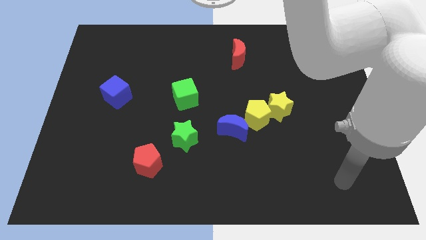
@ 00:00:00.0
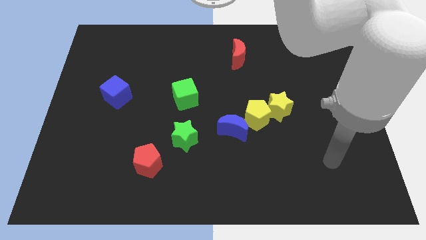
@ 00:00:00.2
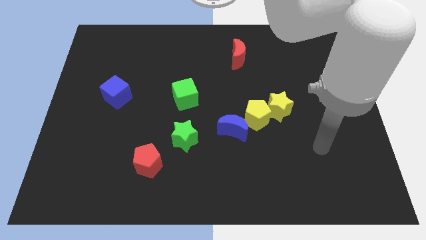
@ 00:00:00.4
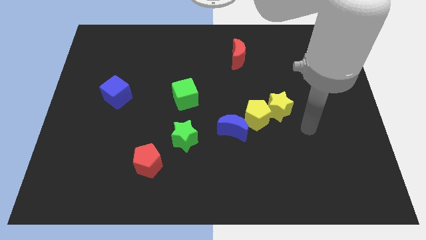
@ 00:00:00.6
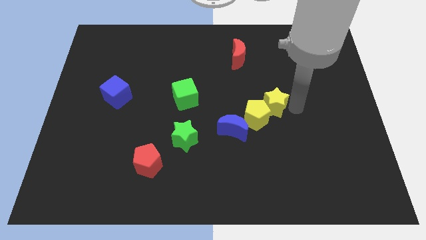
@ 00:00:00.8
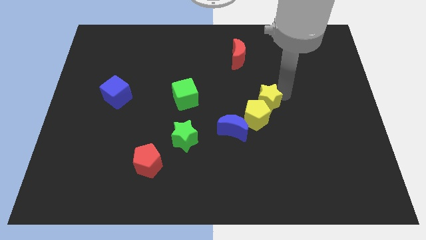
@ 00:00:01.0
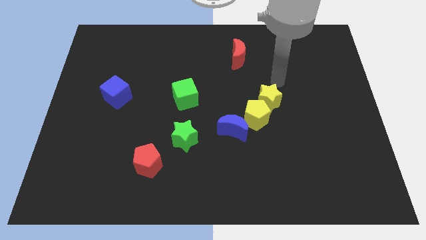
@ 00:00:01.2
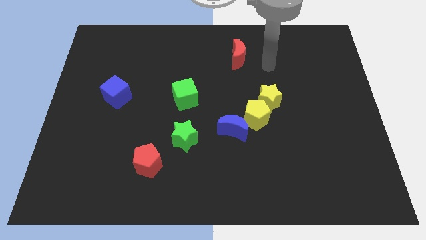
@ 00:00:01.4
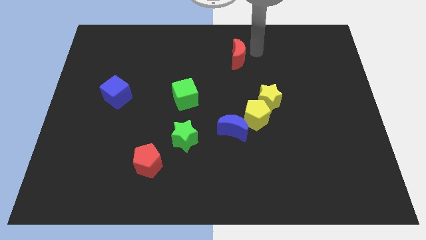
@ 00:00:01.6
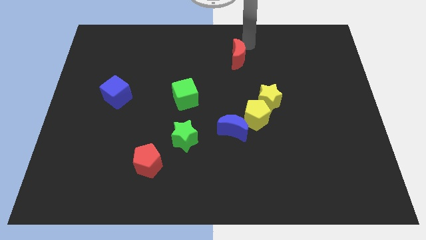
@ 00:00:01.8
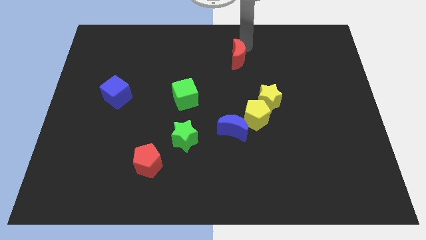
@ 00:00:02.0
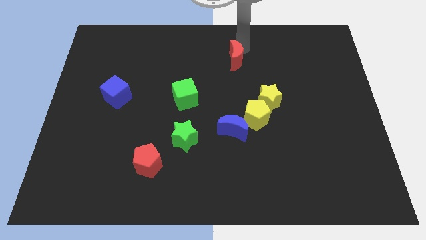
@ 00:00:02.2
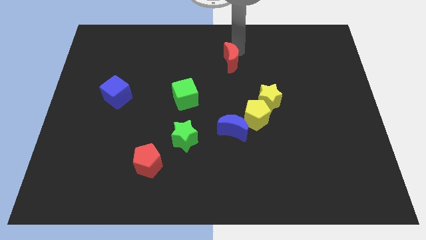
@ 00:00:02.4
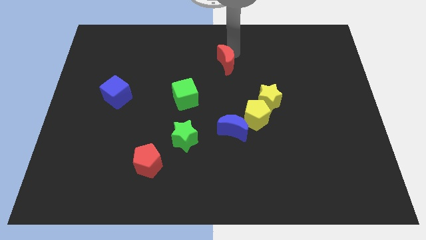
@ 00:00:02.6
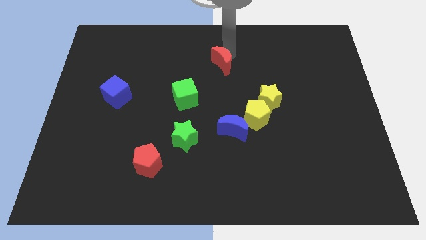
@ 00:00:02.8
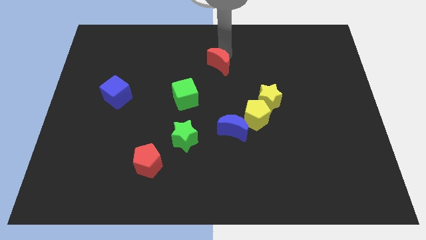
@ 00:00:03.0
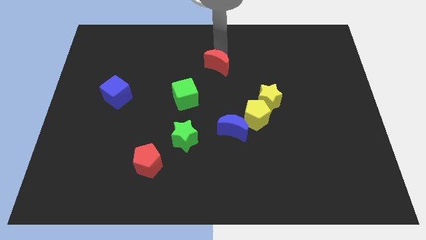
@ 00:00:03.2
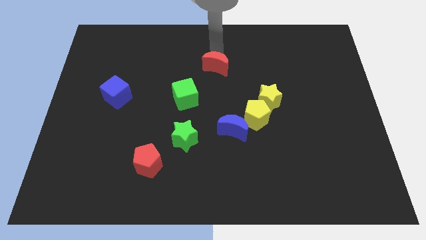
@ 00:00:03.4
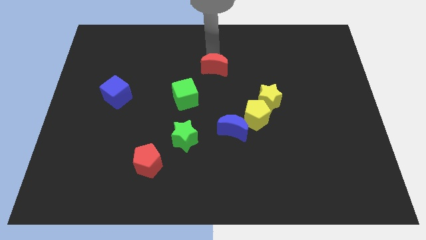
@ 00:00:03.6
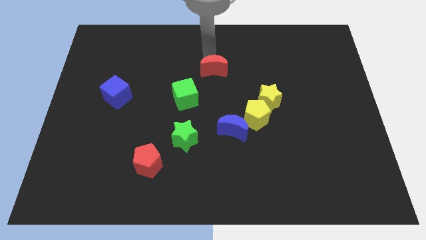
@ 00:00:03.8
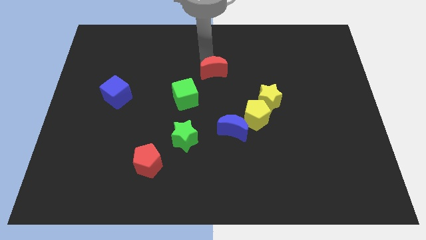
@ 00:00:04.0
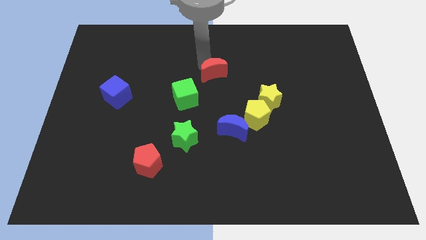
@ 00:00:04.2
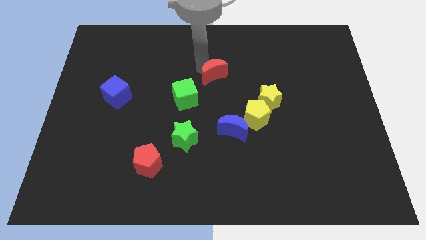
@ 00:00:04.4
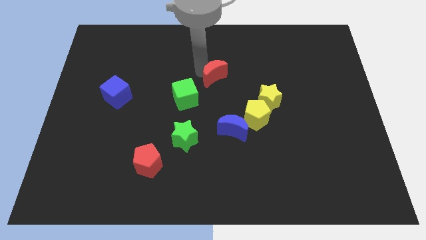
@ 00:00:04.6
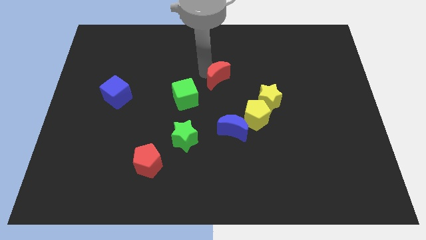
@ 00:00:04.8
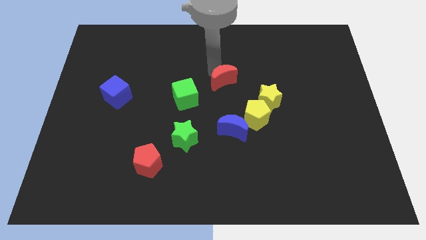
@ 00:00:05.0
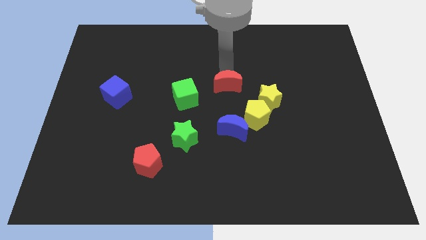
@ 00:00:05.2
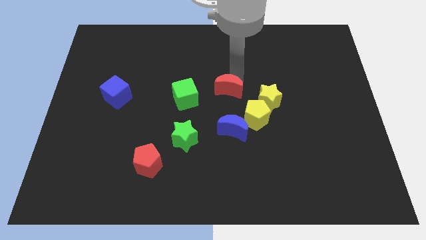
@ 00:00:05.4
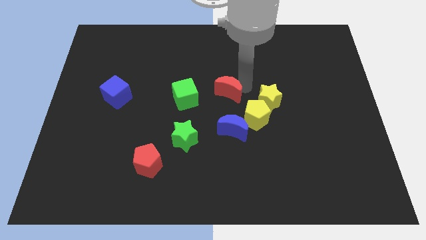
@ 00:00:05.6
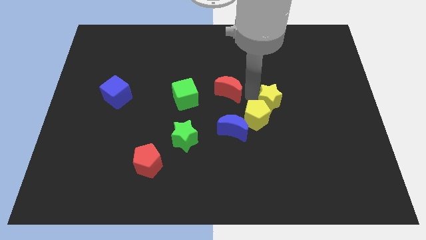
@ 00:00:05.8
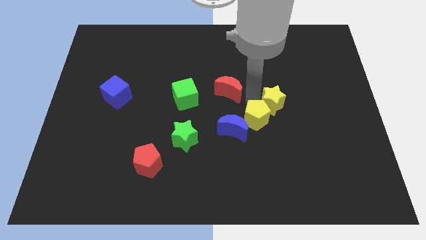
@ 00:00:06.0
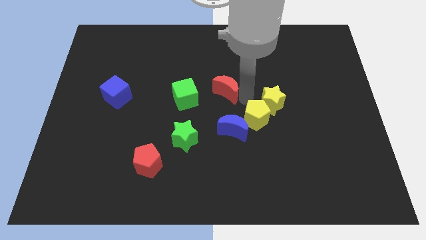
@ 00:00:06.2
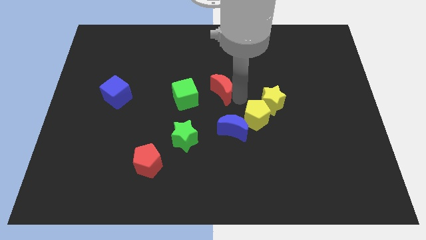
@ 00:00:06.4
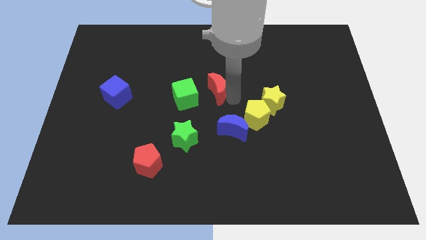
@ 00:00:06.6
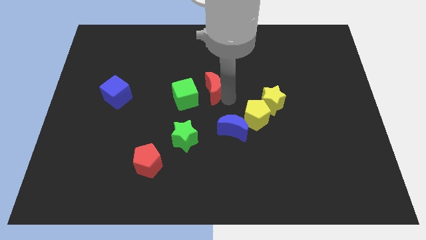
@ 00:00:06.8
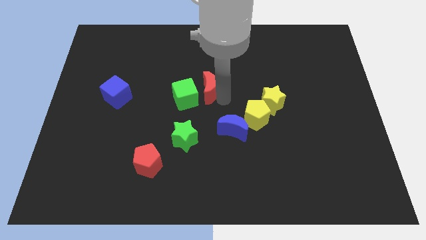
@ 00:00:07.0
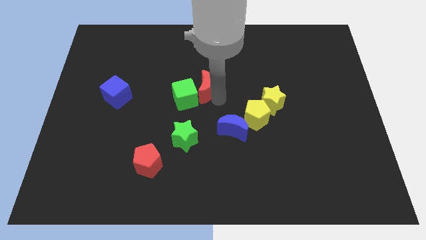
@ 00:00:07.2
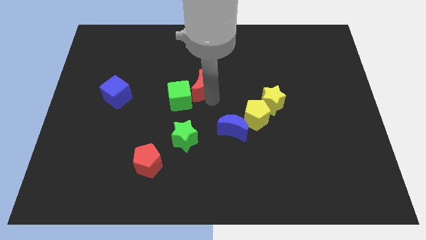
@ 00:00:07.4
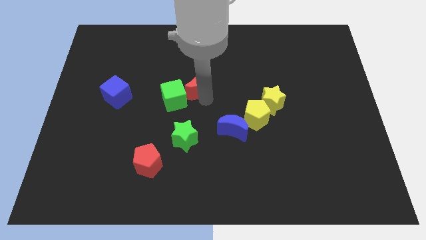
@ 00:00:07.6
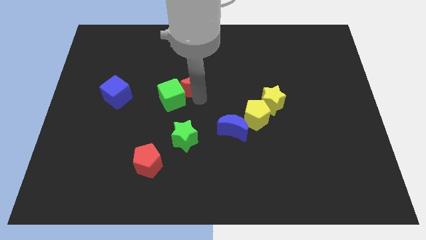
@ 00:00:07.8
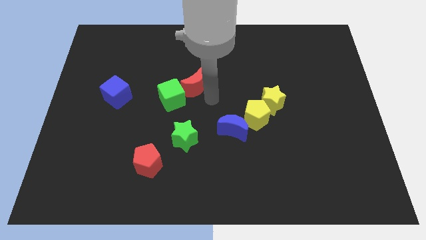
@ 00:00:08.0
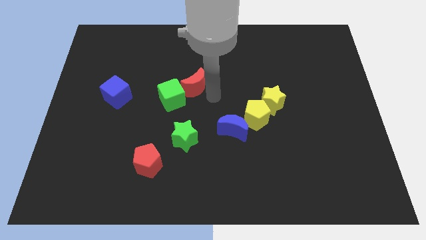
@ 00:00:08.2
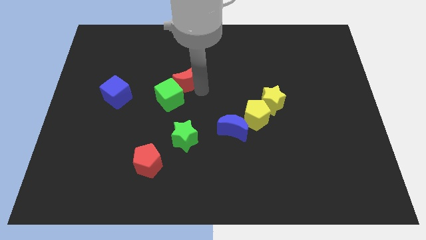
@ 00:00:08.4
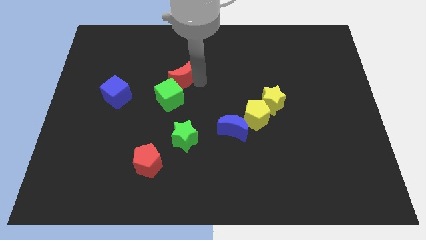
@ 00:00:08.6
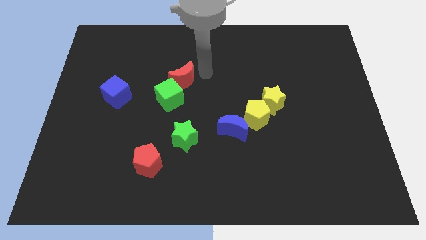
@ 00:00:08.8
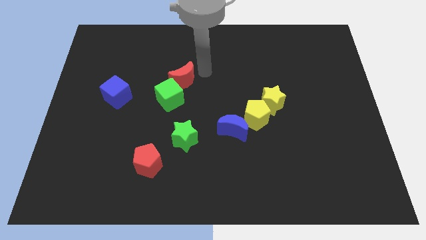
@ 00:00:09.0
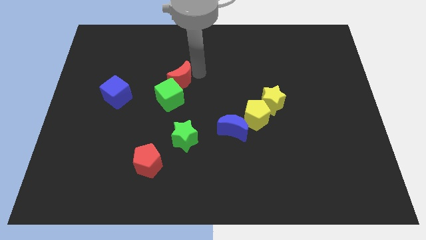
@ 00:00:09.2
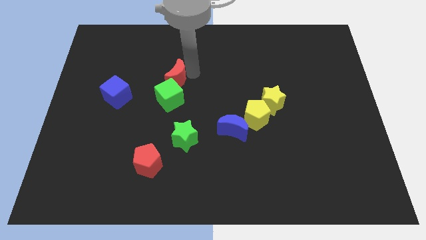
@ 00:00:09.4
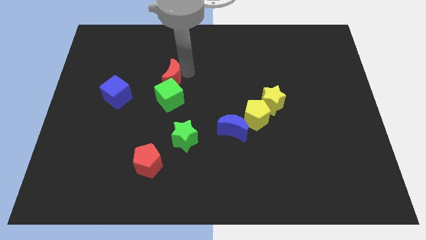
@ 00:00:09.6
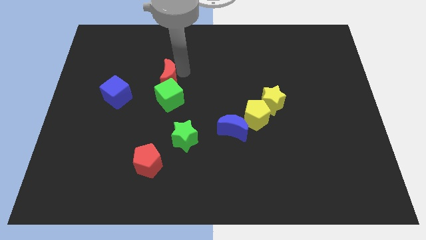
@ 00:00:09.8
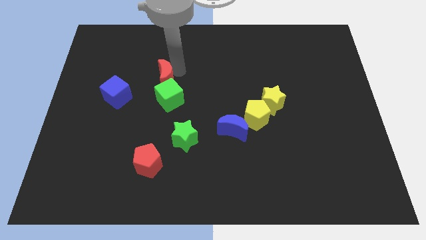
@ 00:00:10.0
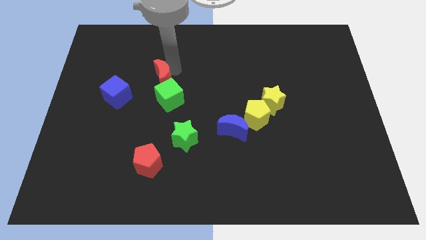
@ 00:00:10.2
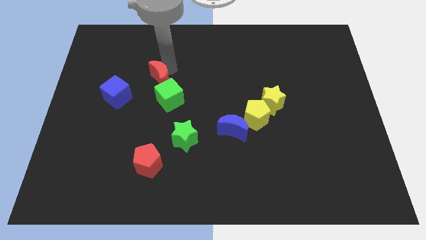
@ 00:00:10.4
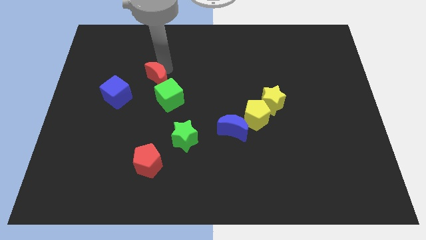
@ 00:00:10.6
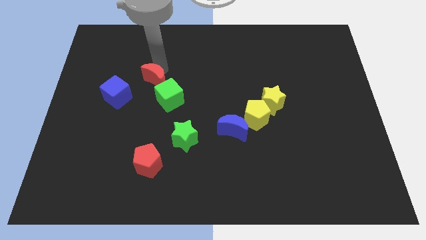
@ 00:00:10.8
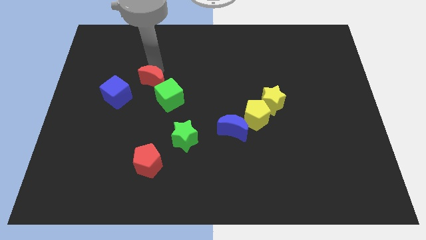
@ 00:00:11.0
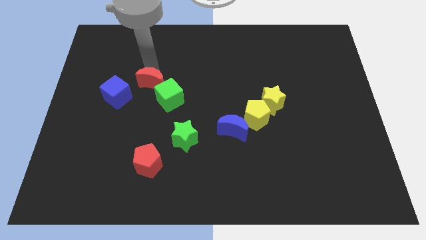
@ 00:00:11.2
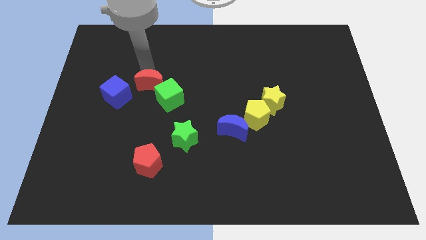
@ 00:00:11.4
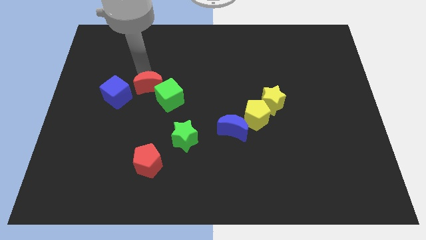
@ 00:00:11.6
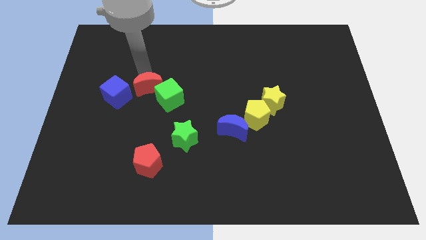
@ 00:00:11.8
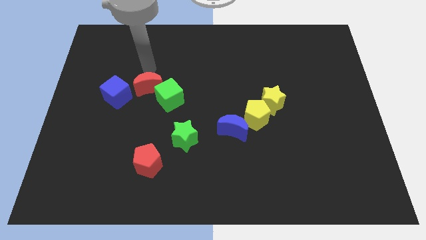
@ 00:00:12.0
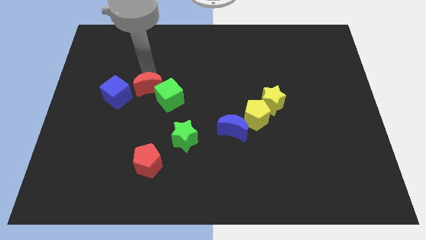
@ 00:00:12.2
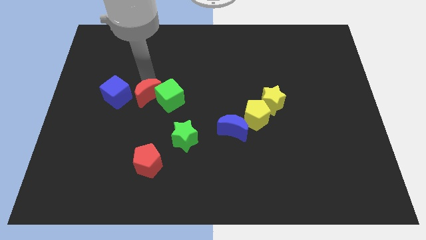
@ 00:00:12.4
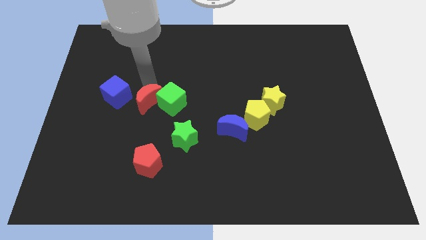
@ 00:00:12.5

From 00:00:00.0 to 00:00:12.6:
push the red moon to the bottom right side of the blue cube
